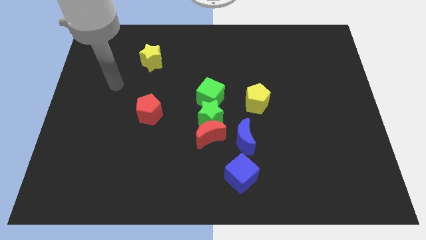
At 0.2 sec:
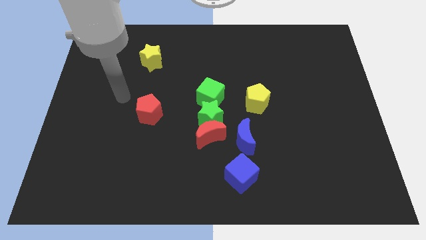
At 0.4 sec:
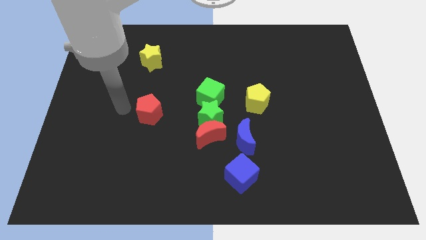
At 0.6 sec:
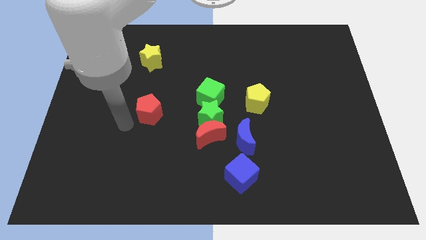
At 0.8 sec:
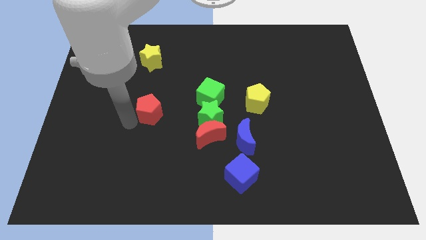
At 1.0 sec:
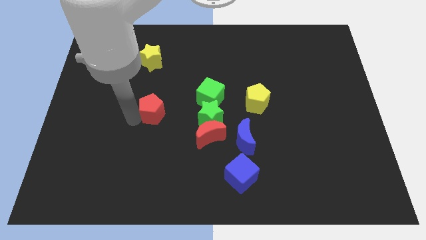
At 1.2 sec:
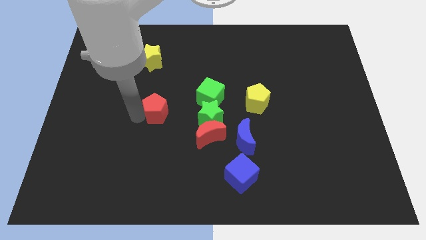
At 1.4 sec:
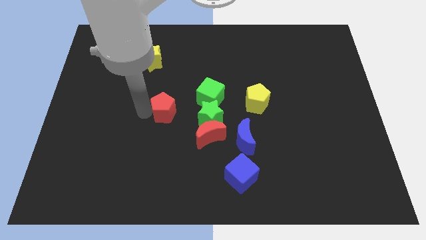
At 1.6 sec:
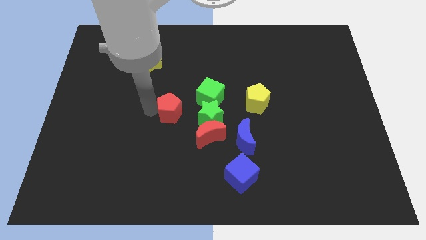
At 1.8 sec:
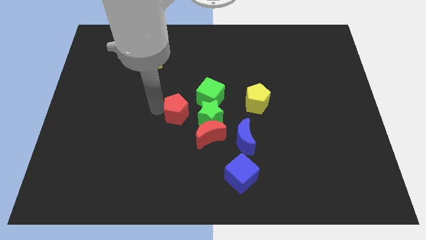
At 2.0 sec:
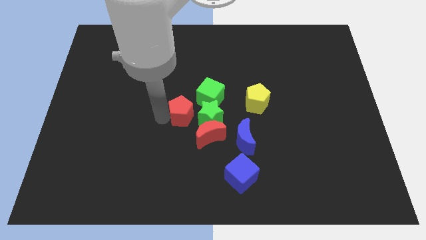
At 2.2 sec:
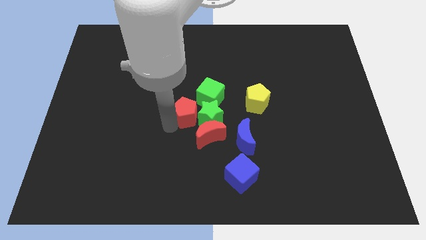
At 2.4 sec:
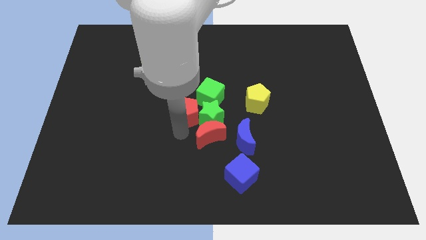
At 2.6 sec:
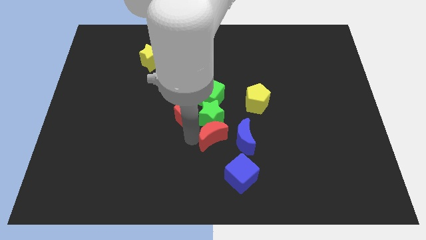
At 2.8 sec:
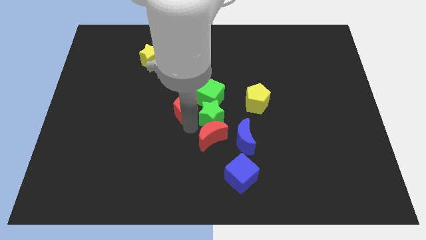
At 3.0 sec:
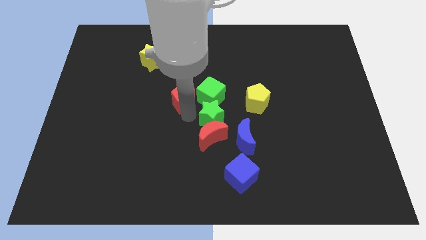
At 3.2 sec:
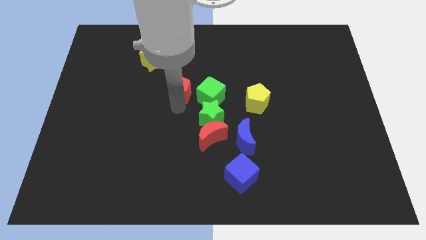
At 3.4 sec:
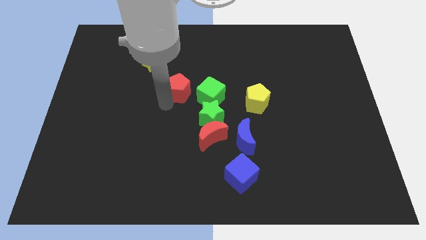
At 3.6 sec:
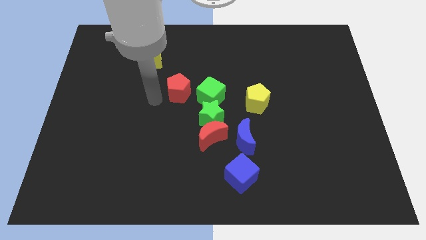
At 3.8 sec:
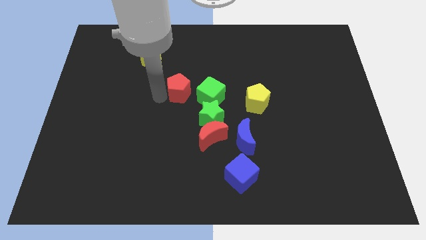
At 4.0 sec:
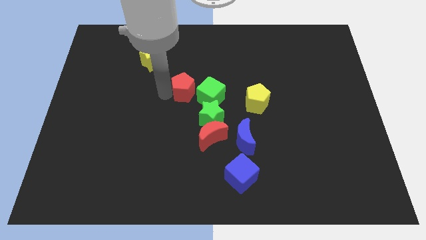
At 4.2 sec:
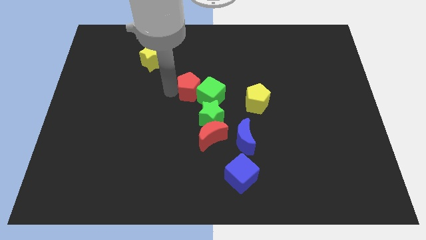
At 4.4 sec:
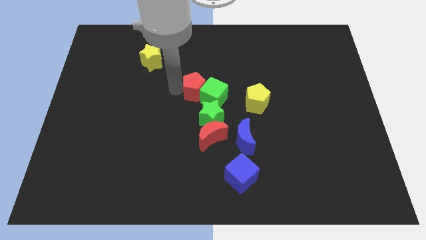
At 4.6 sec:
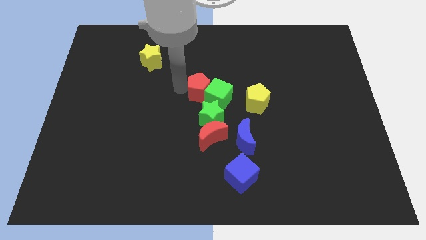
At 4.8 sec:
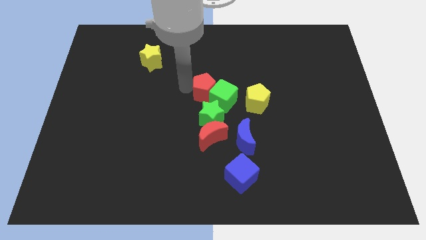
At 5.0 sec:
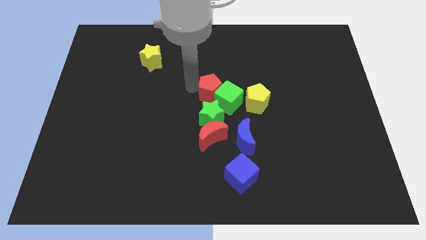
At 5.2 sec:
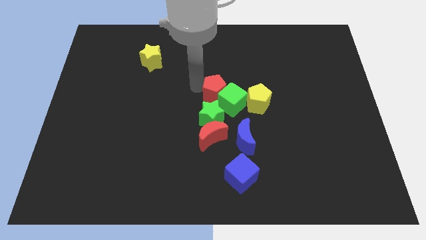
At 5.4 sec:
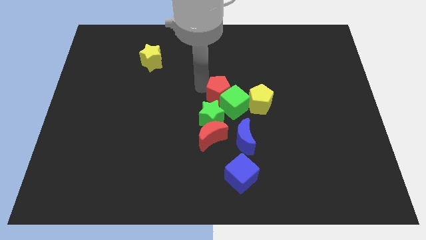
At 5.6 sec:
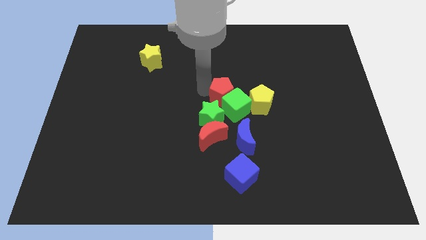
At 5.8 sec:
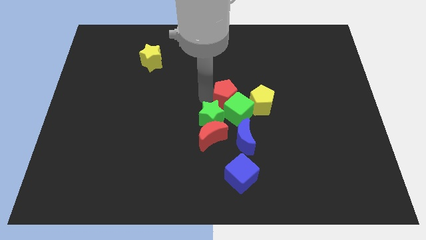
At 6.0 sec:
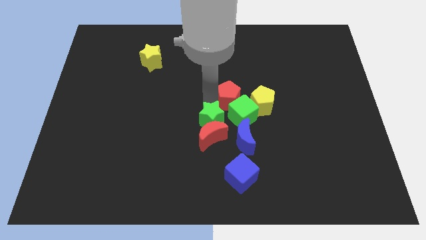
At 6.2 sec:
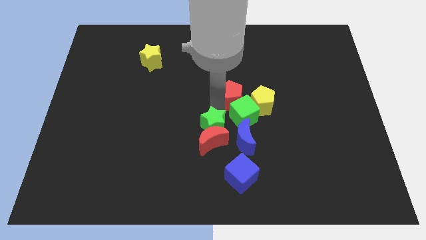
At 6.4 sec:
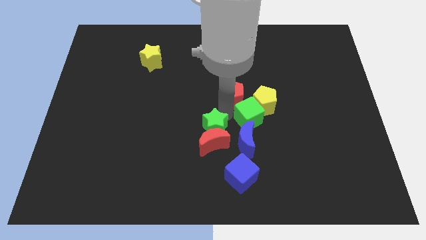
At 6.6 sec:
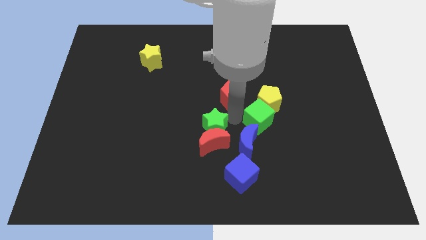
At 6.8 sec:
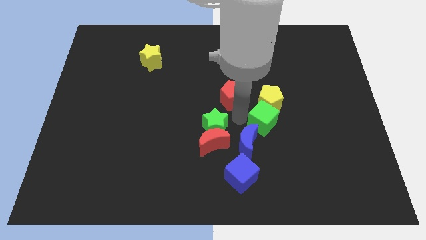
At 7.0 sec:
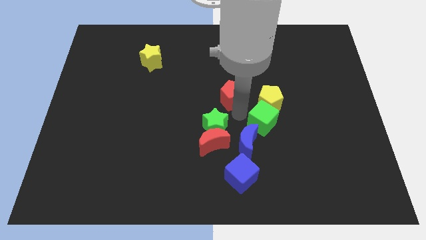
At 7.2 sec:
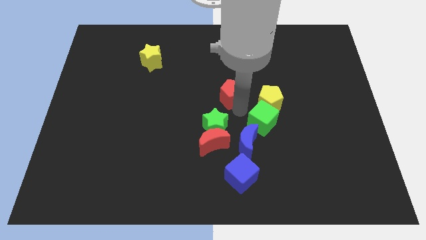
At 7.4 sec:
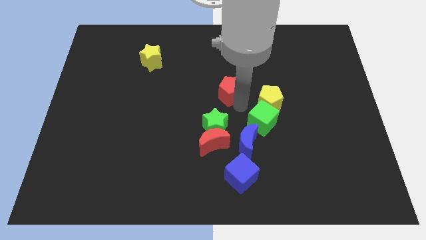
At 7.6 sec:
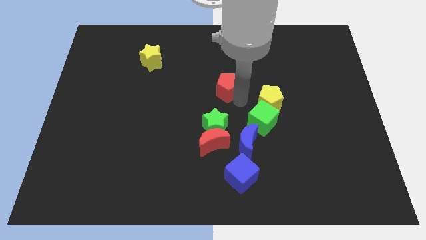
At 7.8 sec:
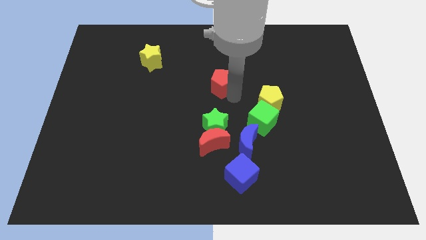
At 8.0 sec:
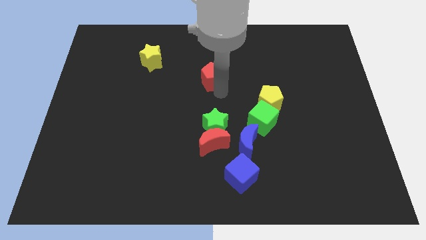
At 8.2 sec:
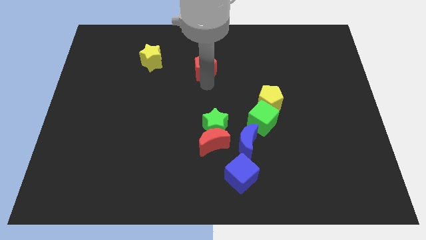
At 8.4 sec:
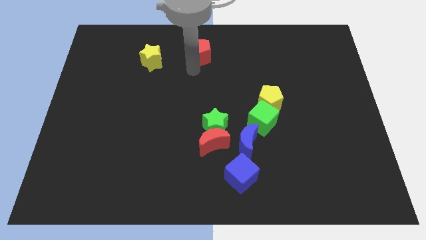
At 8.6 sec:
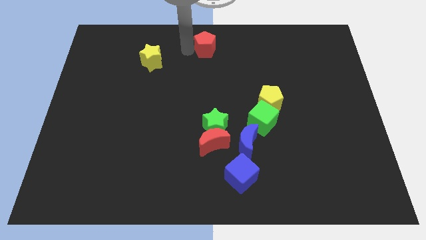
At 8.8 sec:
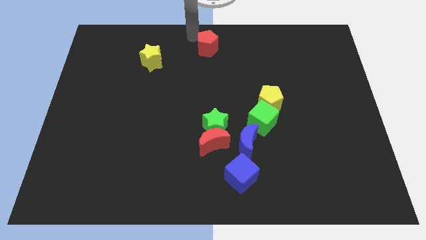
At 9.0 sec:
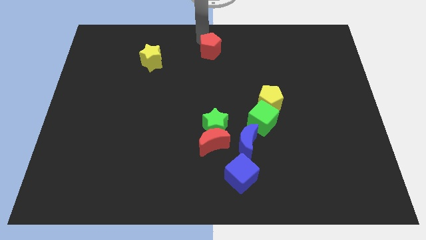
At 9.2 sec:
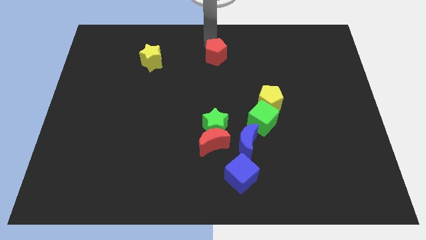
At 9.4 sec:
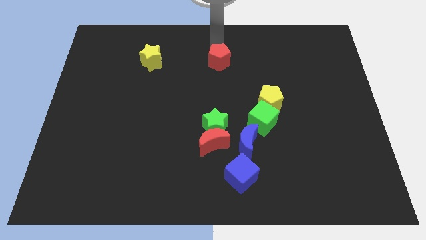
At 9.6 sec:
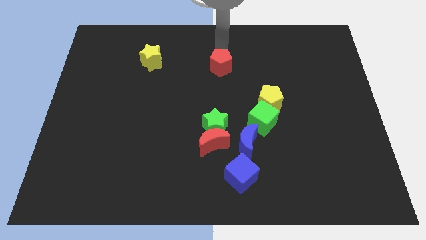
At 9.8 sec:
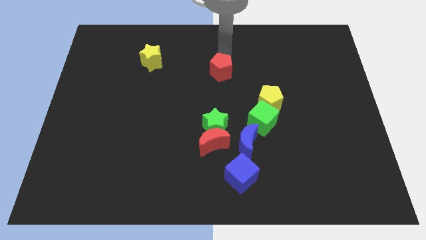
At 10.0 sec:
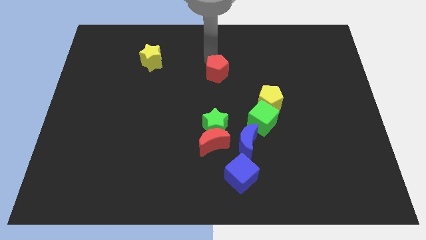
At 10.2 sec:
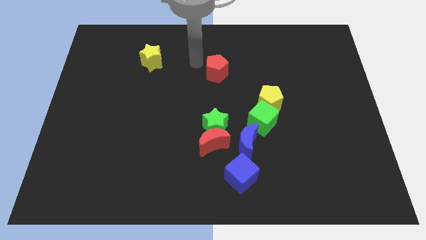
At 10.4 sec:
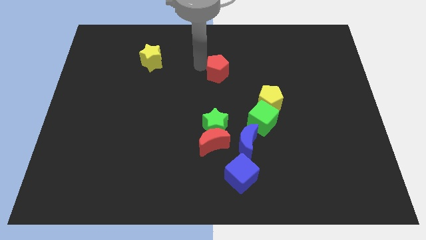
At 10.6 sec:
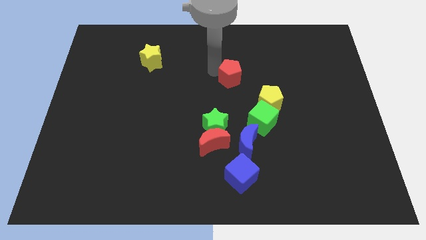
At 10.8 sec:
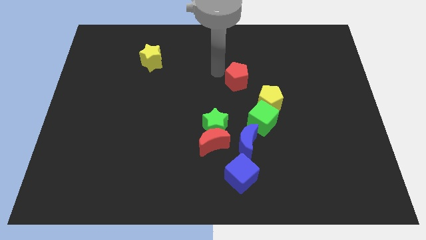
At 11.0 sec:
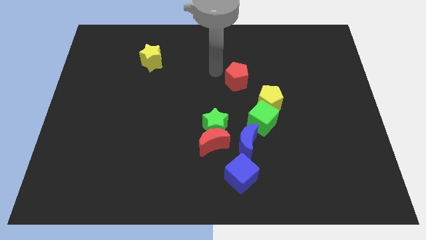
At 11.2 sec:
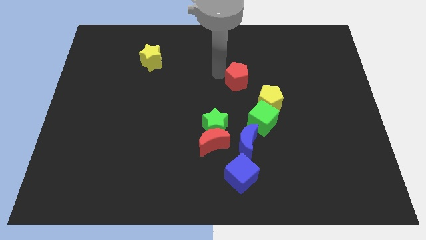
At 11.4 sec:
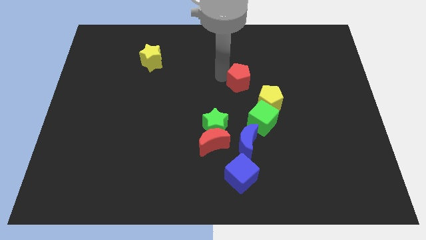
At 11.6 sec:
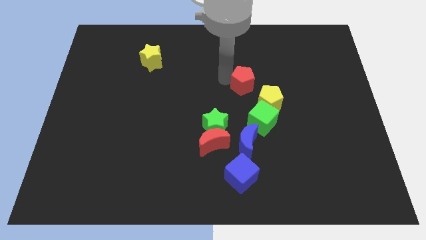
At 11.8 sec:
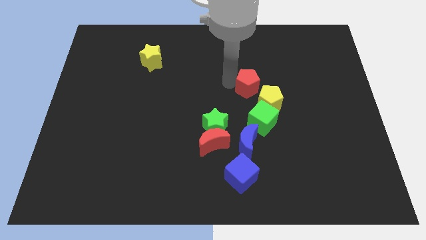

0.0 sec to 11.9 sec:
slide the red pentagon to the right

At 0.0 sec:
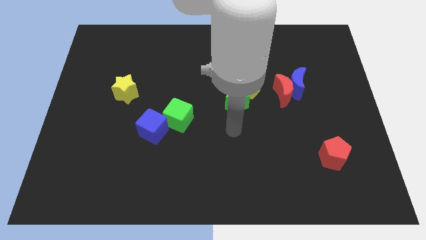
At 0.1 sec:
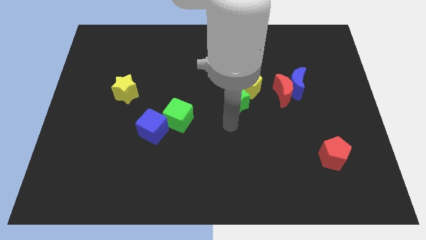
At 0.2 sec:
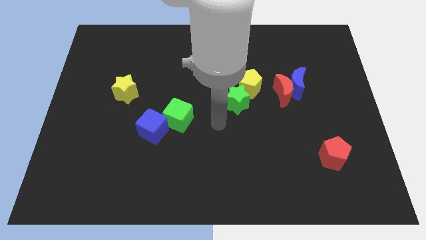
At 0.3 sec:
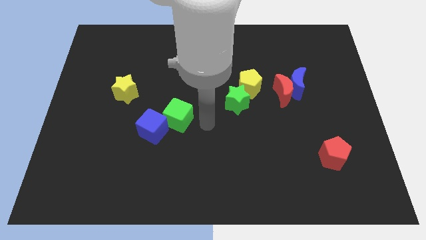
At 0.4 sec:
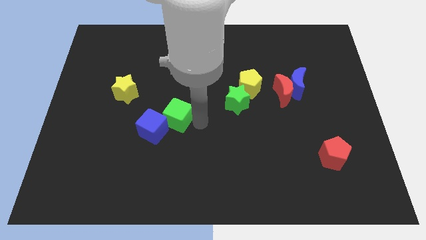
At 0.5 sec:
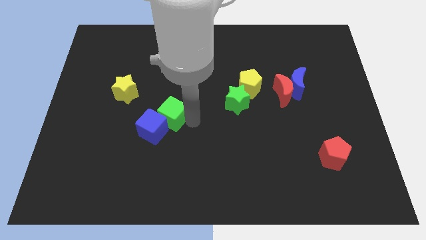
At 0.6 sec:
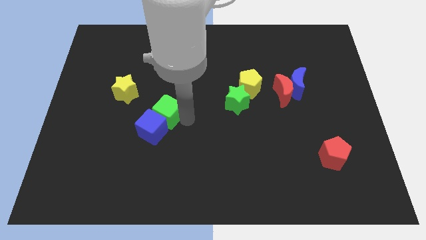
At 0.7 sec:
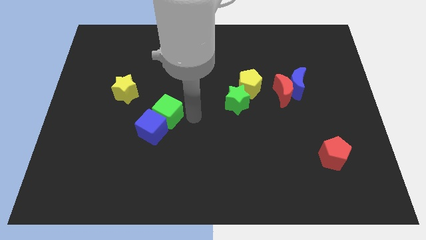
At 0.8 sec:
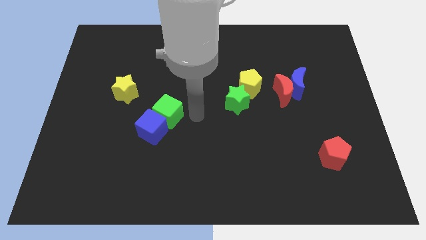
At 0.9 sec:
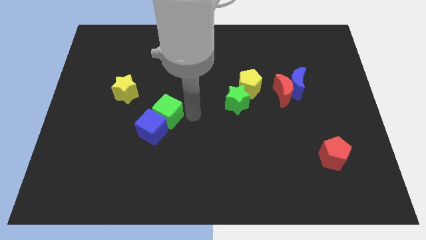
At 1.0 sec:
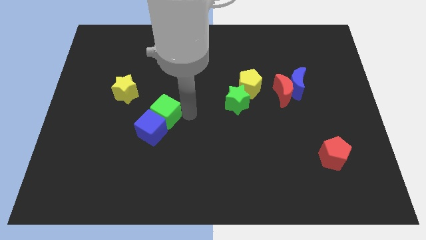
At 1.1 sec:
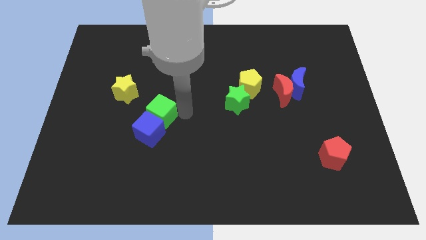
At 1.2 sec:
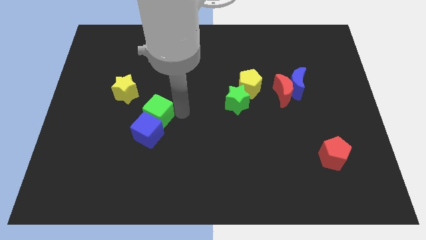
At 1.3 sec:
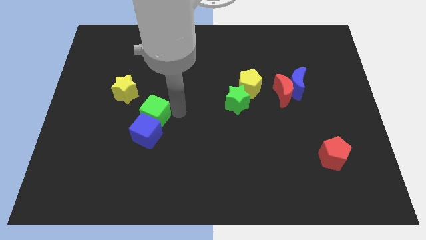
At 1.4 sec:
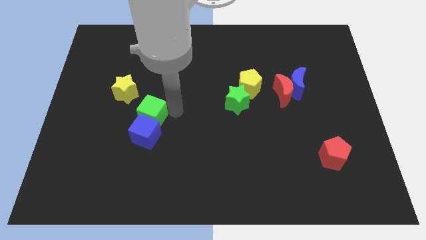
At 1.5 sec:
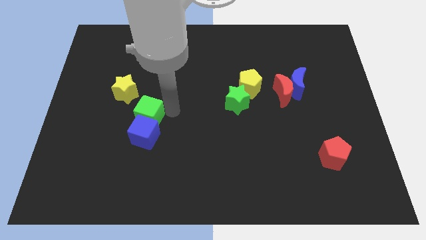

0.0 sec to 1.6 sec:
move the green cube to the left slightly

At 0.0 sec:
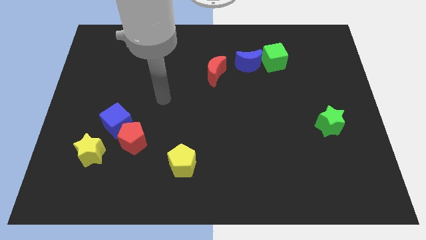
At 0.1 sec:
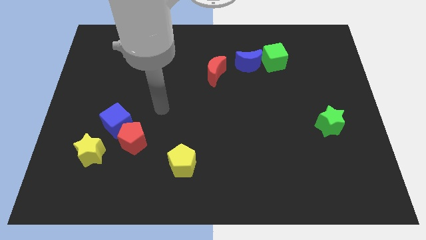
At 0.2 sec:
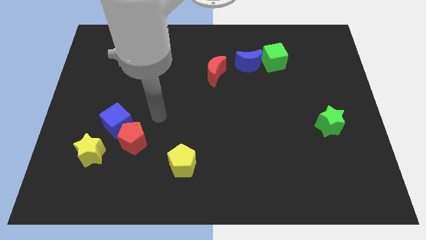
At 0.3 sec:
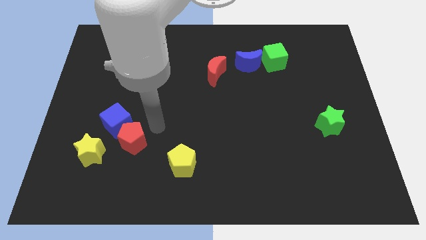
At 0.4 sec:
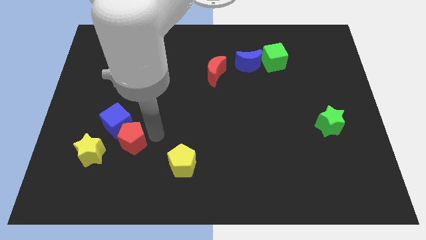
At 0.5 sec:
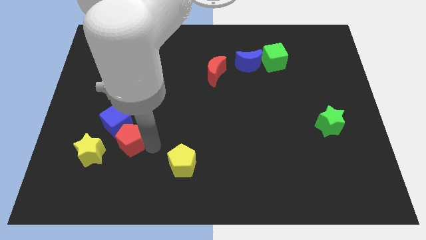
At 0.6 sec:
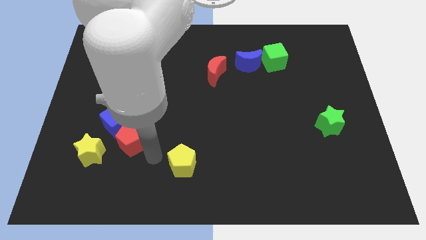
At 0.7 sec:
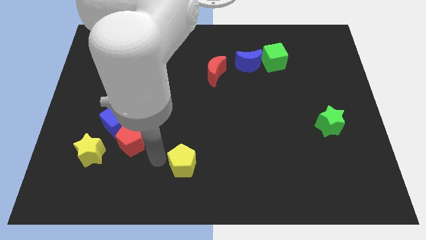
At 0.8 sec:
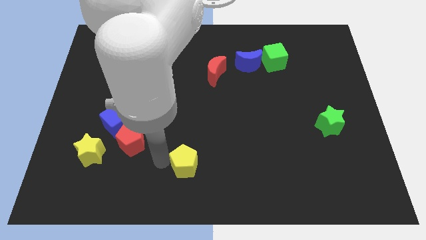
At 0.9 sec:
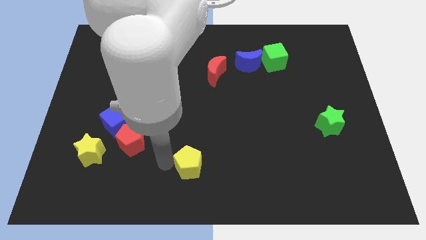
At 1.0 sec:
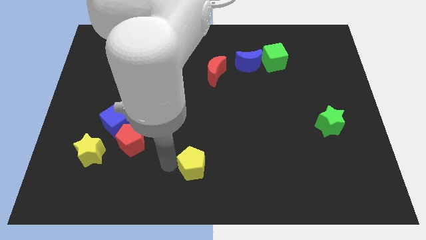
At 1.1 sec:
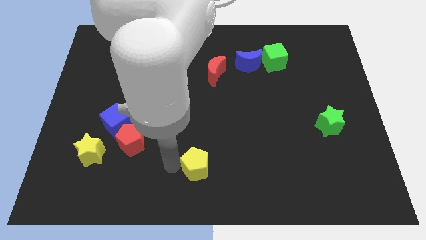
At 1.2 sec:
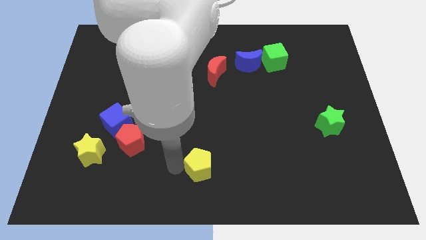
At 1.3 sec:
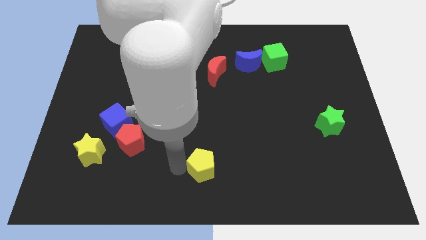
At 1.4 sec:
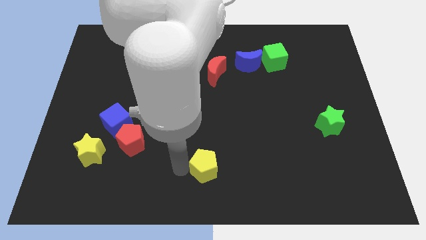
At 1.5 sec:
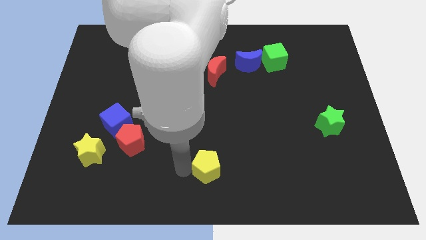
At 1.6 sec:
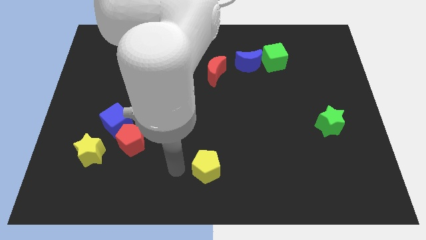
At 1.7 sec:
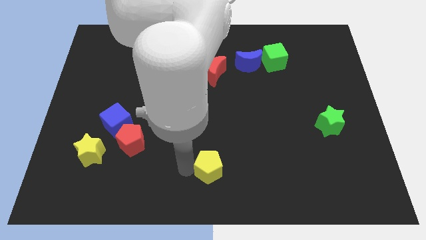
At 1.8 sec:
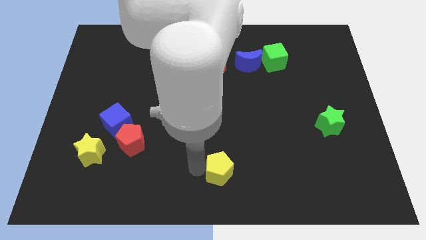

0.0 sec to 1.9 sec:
slightly push the yellow pentagon right
